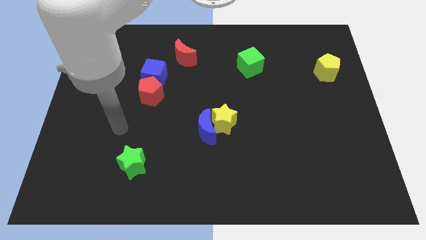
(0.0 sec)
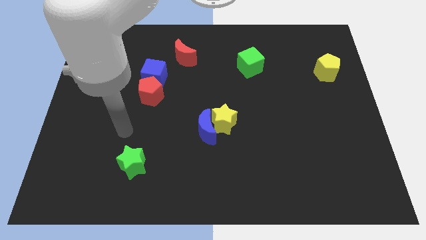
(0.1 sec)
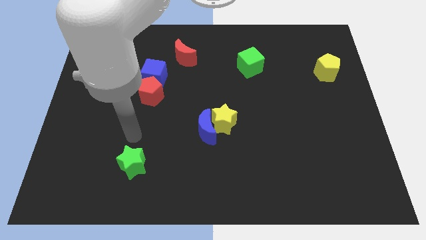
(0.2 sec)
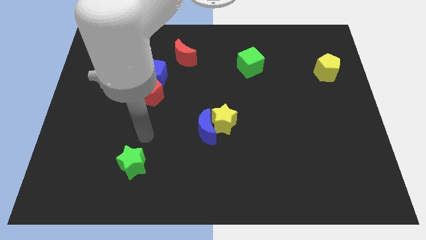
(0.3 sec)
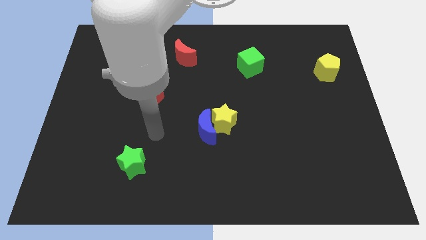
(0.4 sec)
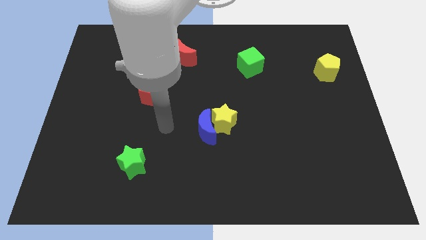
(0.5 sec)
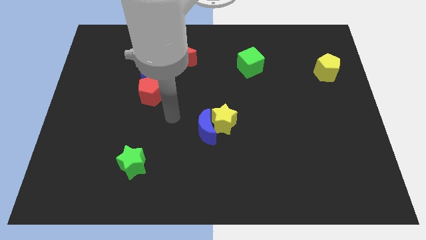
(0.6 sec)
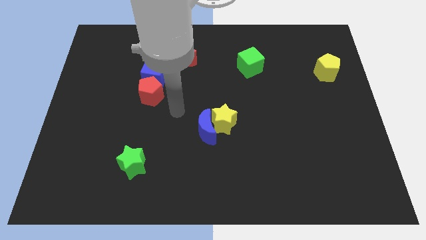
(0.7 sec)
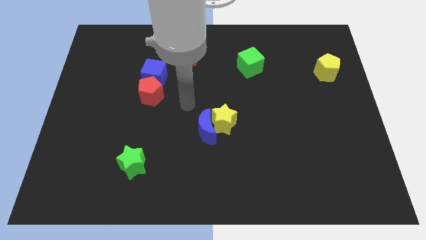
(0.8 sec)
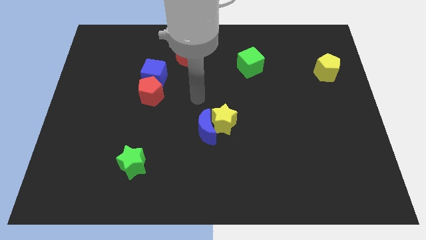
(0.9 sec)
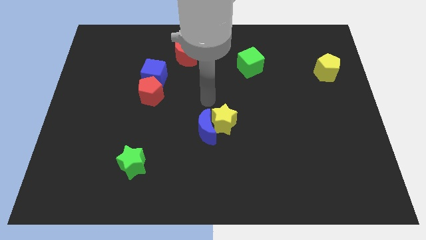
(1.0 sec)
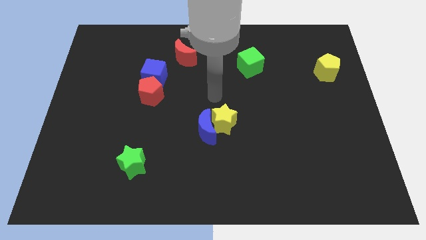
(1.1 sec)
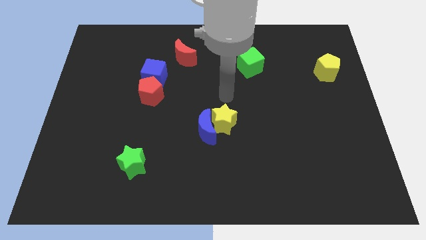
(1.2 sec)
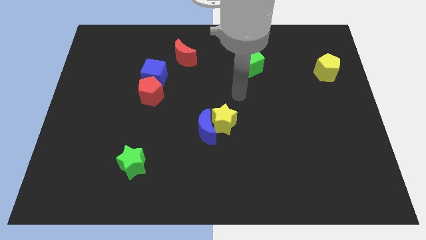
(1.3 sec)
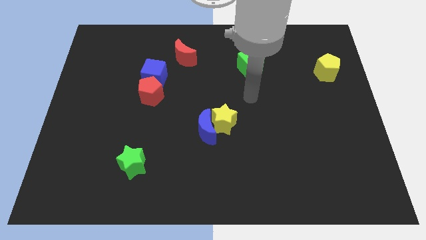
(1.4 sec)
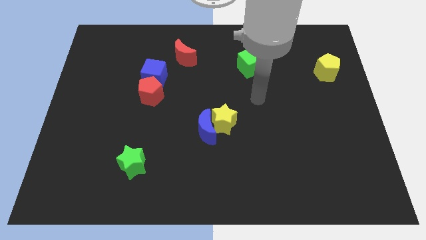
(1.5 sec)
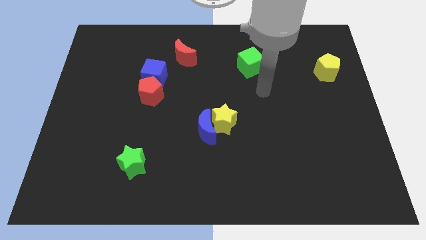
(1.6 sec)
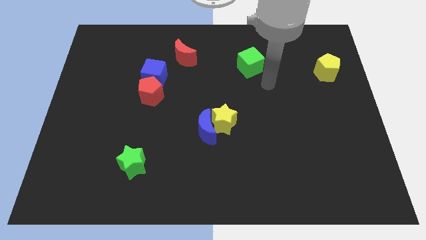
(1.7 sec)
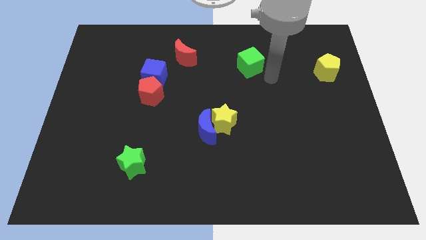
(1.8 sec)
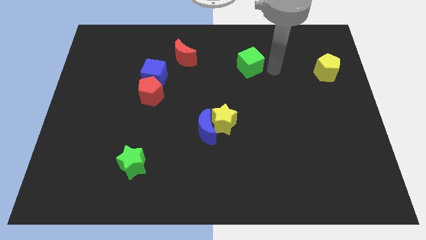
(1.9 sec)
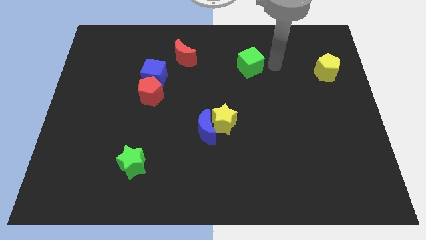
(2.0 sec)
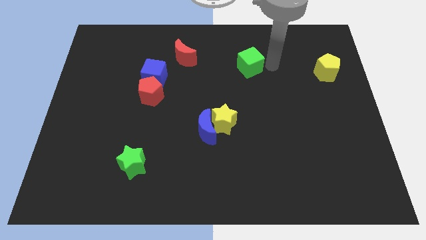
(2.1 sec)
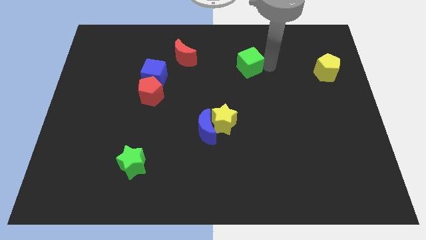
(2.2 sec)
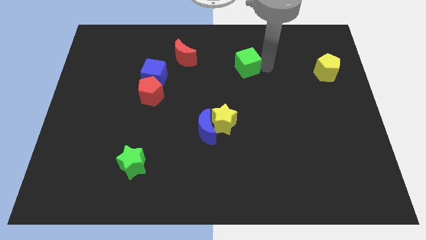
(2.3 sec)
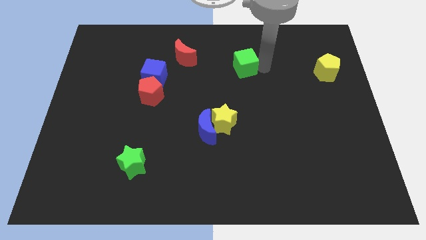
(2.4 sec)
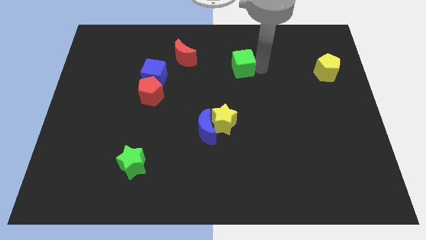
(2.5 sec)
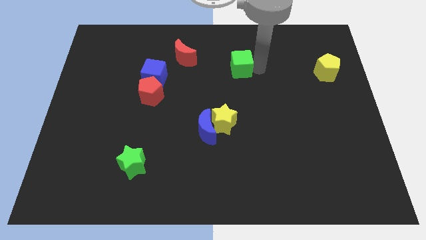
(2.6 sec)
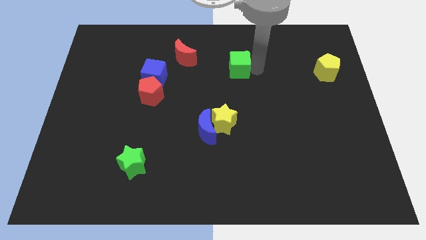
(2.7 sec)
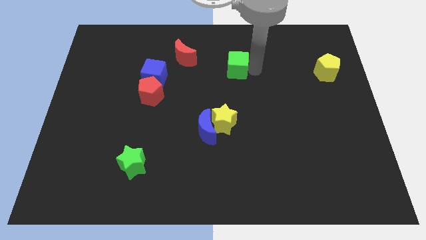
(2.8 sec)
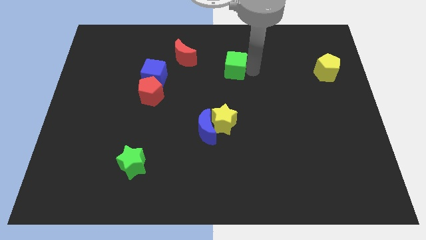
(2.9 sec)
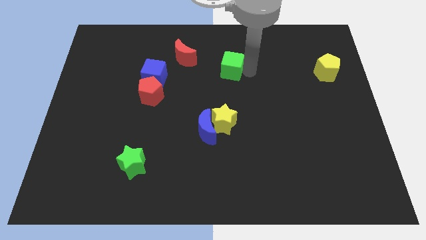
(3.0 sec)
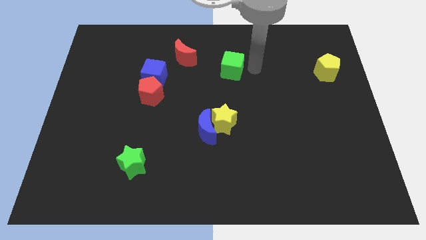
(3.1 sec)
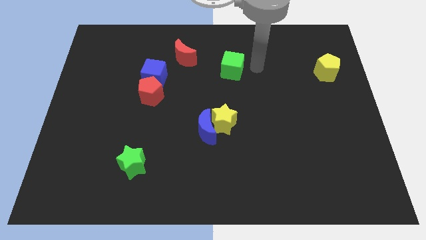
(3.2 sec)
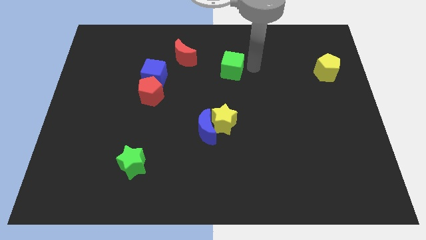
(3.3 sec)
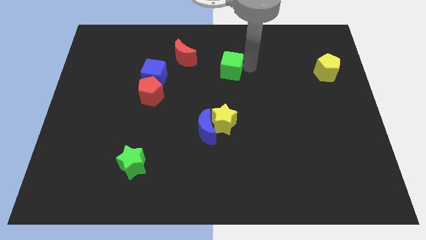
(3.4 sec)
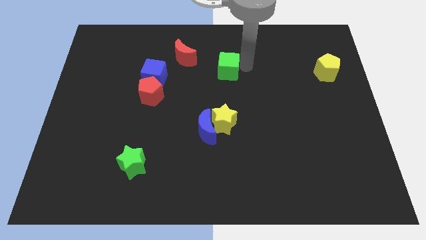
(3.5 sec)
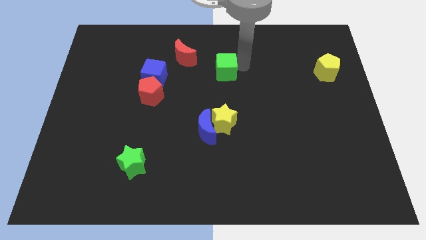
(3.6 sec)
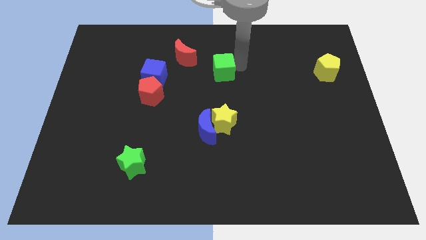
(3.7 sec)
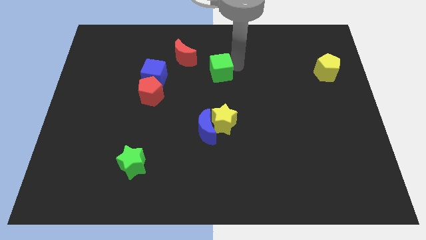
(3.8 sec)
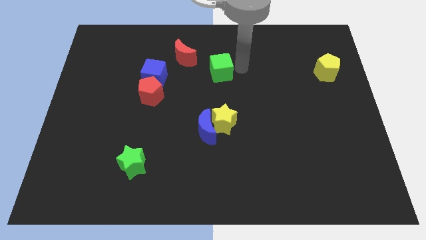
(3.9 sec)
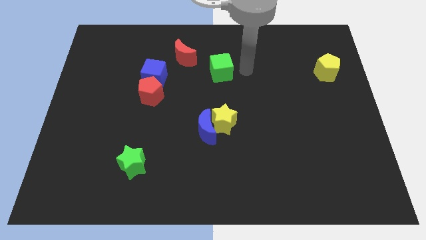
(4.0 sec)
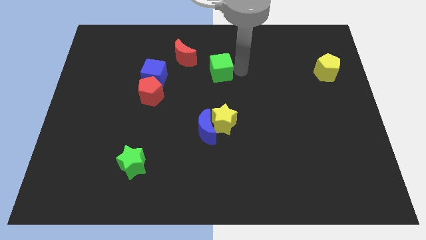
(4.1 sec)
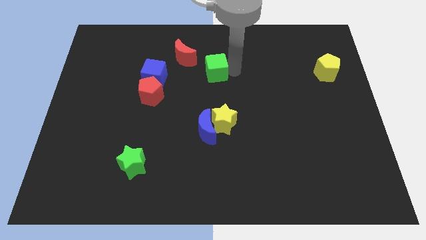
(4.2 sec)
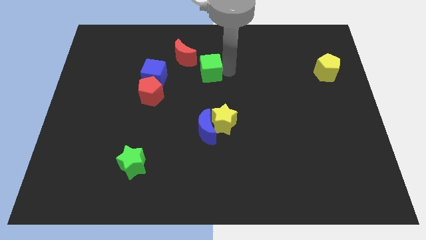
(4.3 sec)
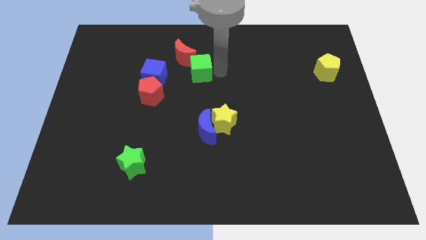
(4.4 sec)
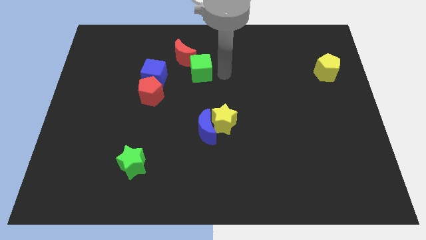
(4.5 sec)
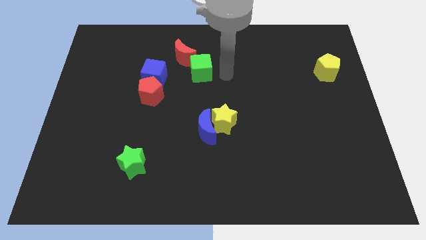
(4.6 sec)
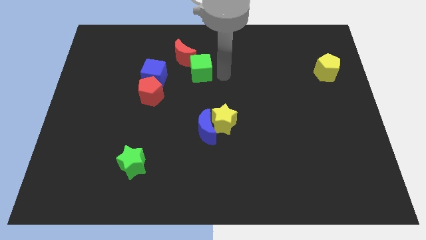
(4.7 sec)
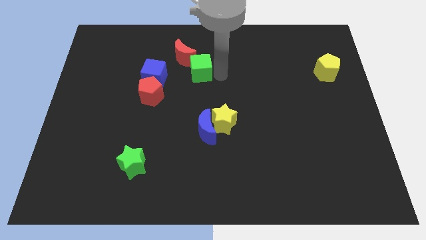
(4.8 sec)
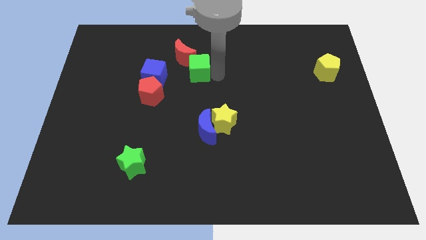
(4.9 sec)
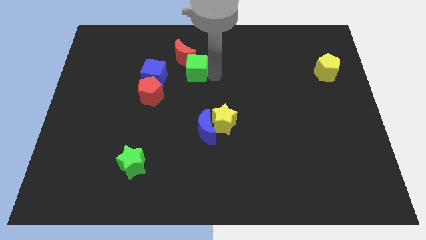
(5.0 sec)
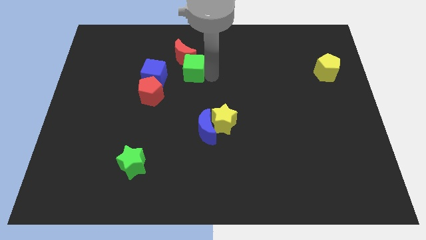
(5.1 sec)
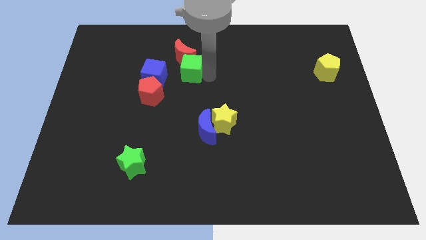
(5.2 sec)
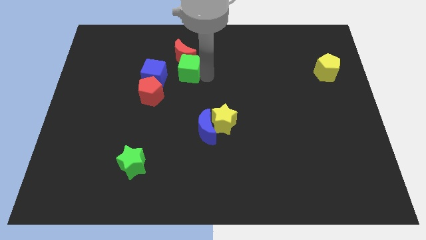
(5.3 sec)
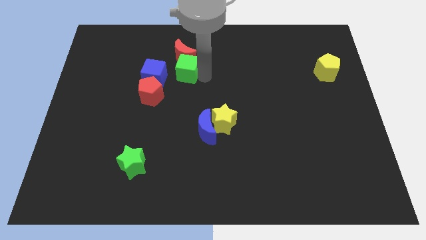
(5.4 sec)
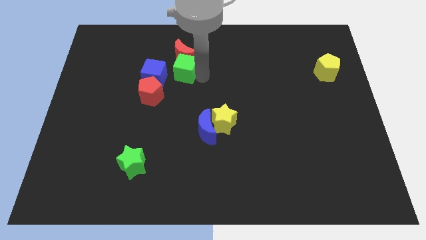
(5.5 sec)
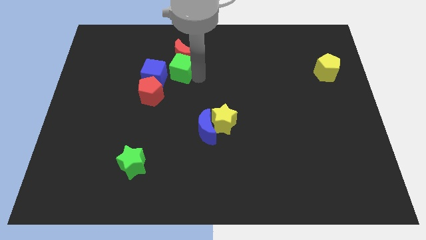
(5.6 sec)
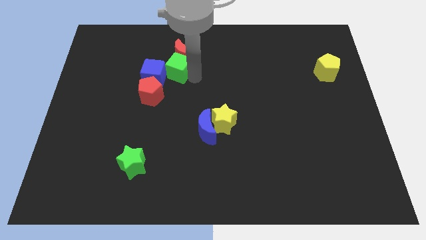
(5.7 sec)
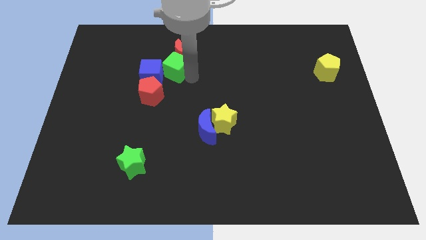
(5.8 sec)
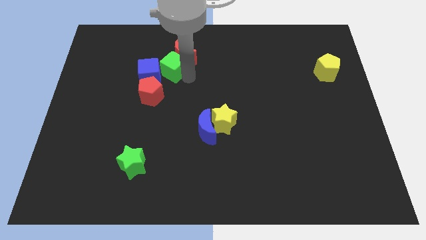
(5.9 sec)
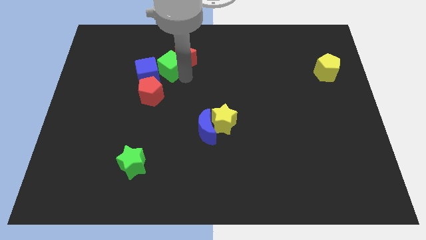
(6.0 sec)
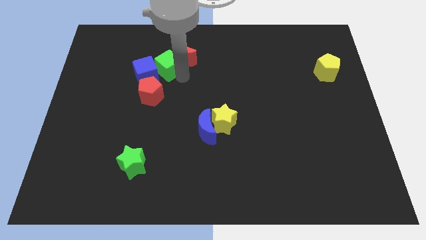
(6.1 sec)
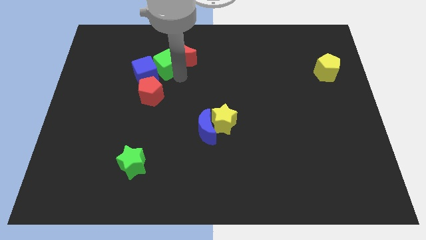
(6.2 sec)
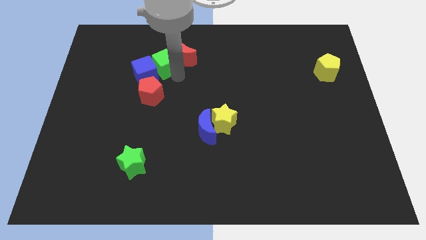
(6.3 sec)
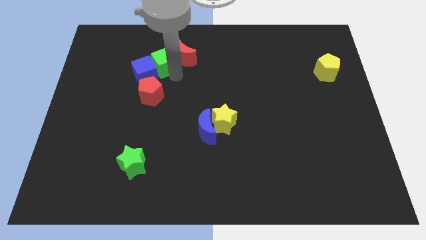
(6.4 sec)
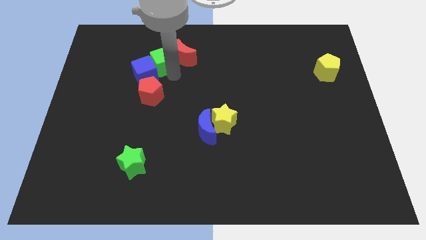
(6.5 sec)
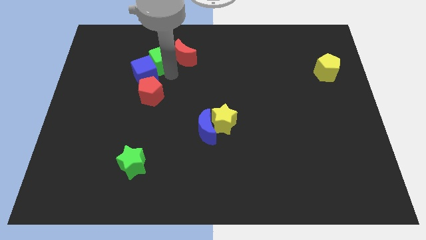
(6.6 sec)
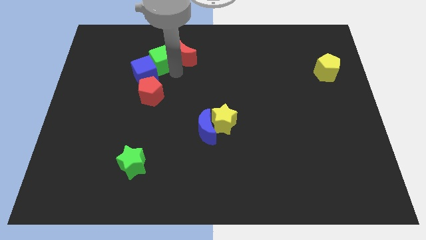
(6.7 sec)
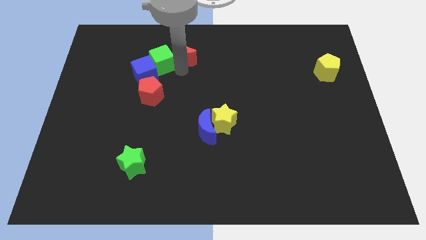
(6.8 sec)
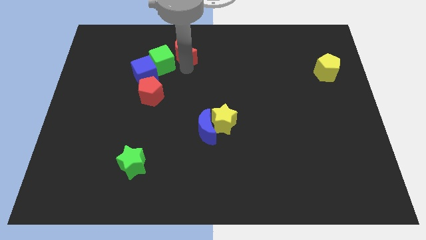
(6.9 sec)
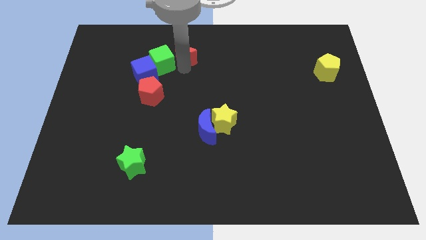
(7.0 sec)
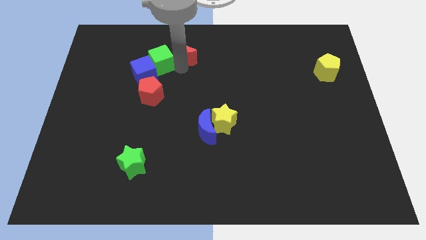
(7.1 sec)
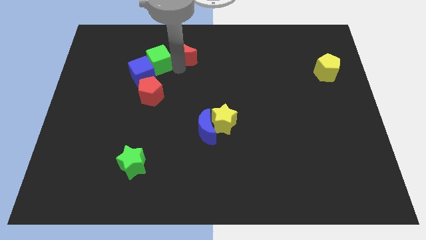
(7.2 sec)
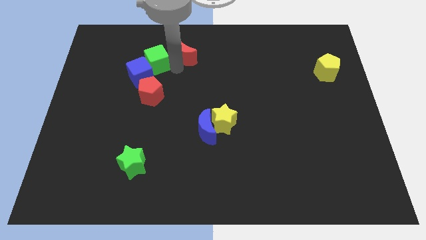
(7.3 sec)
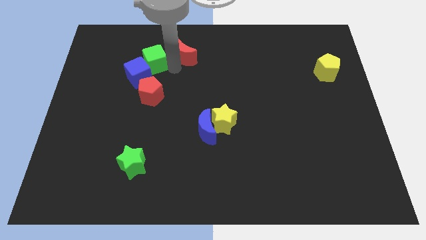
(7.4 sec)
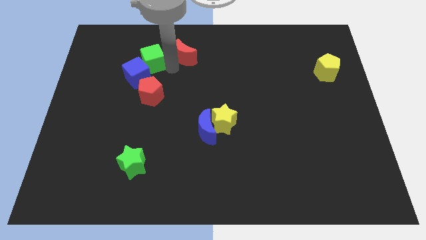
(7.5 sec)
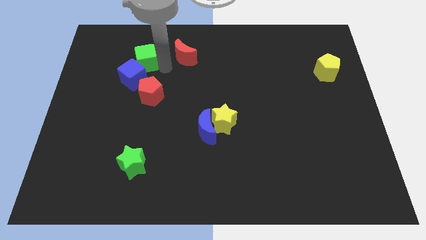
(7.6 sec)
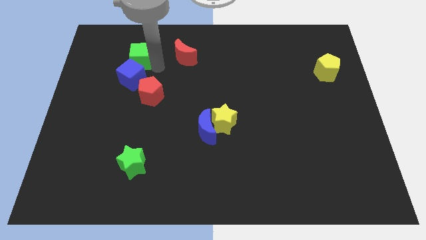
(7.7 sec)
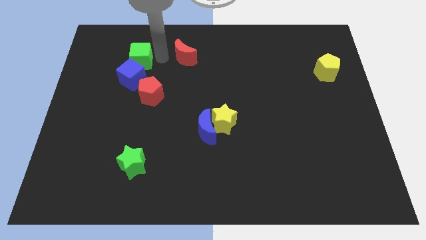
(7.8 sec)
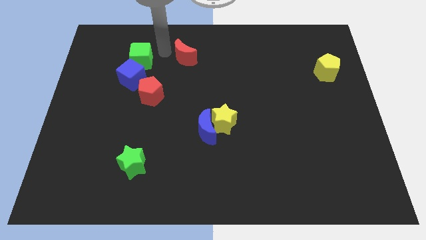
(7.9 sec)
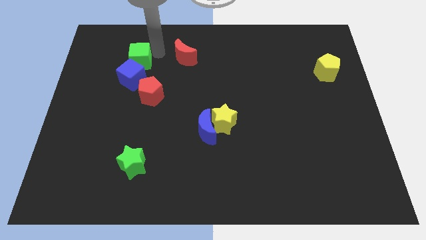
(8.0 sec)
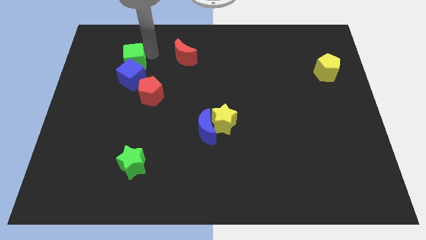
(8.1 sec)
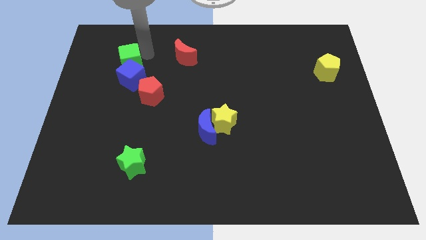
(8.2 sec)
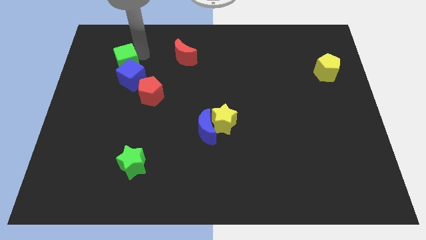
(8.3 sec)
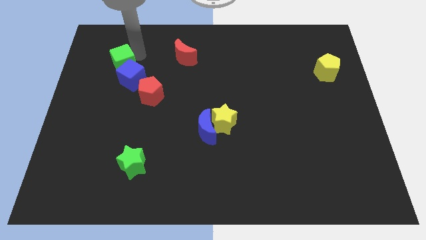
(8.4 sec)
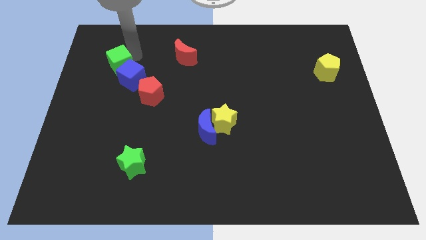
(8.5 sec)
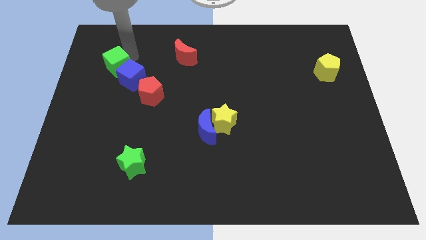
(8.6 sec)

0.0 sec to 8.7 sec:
put the green cube to the left of the blue cube
